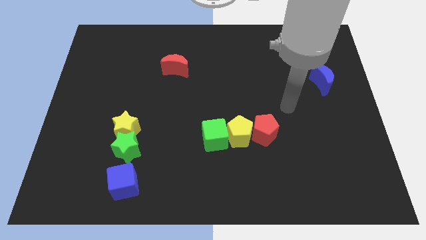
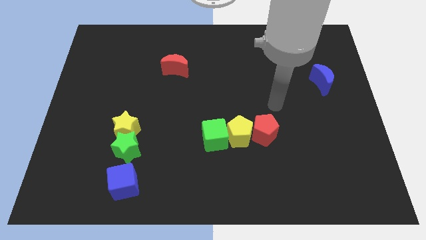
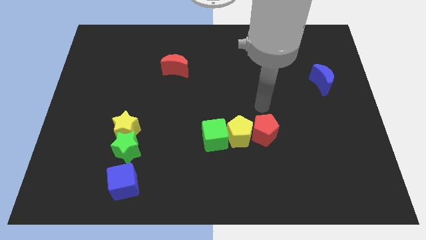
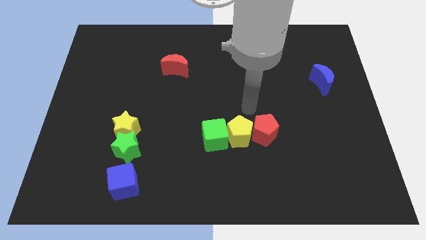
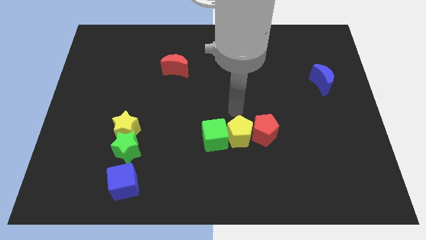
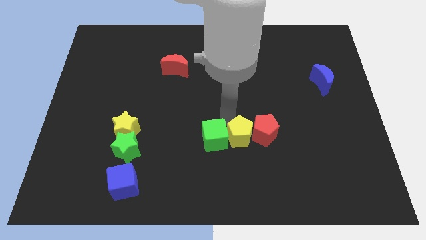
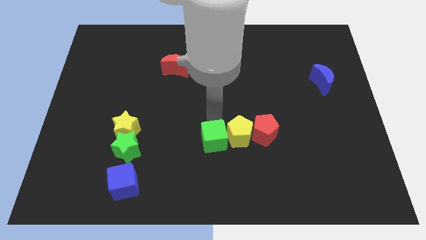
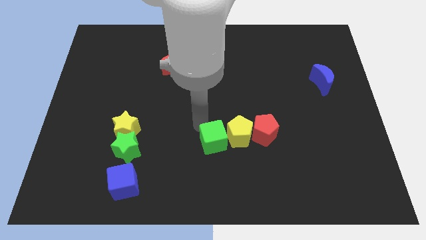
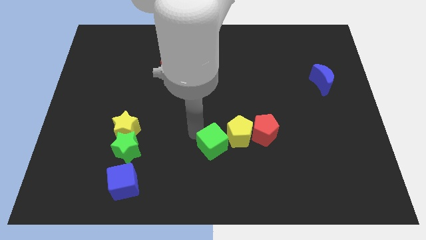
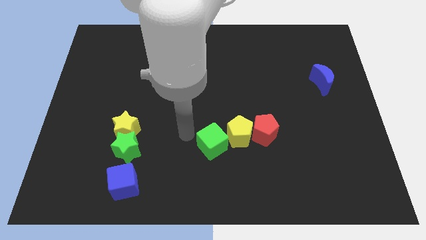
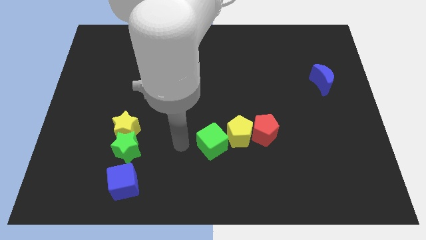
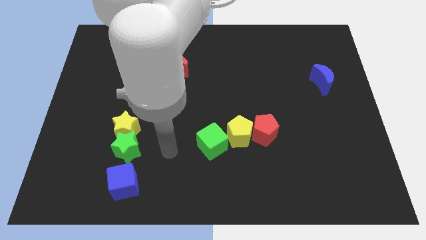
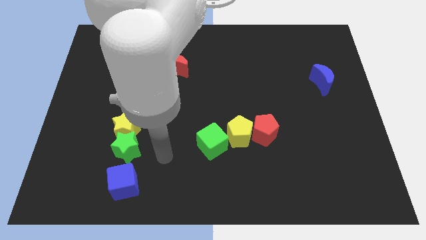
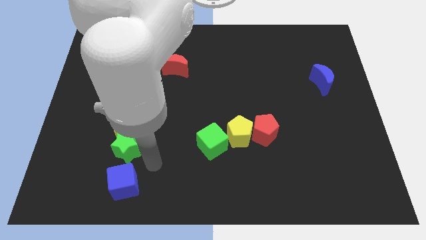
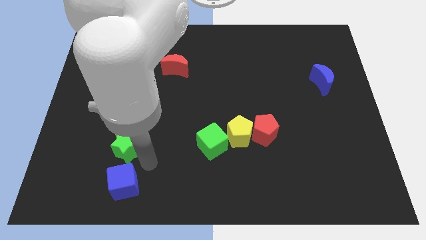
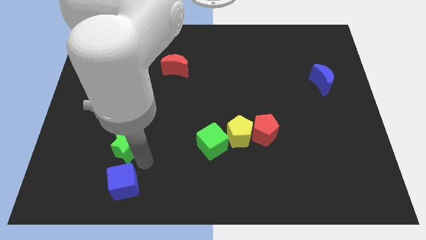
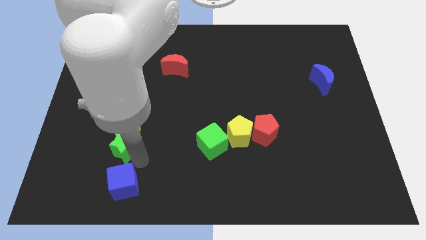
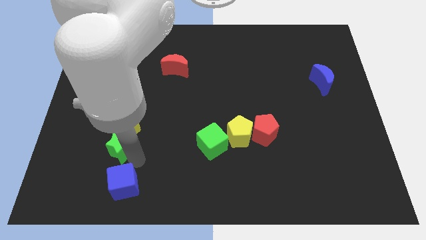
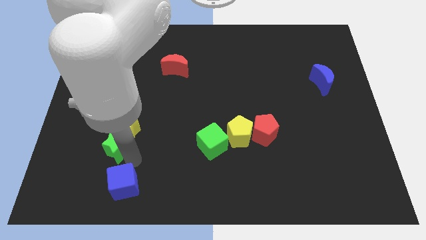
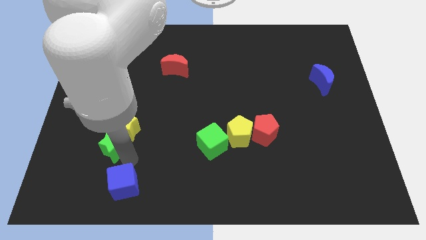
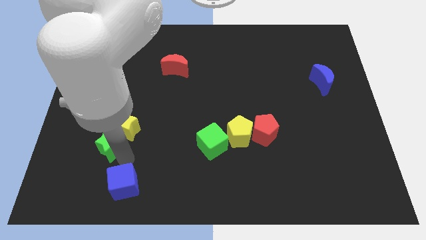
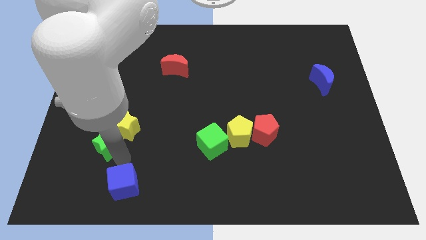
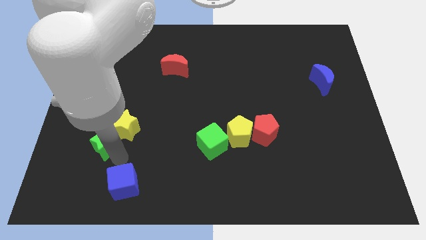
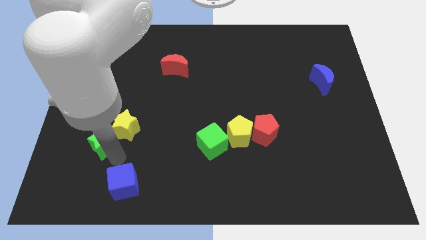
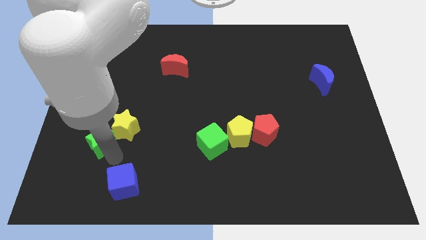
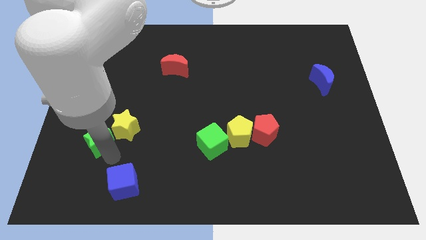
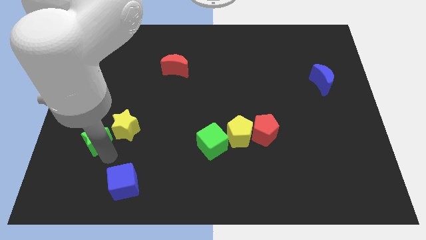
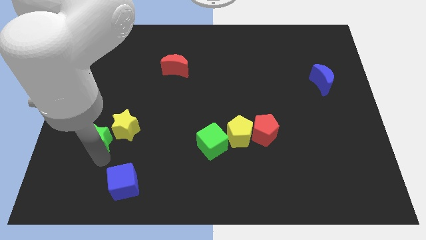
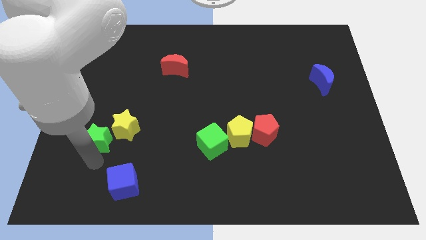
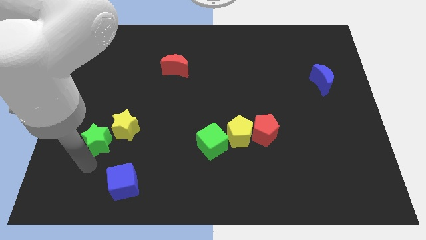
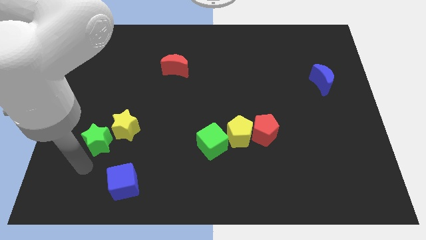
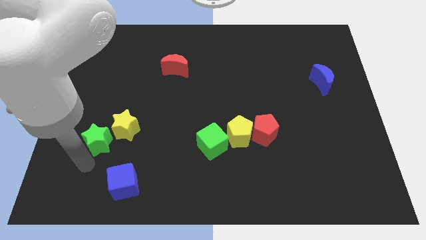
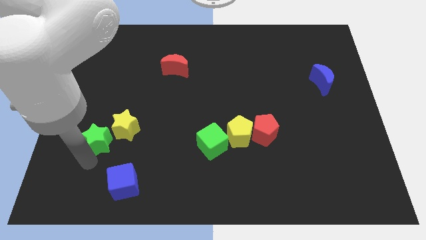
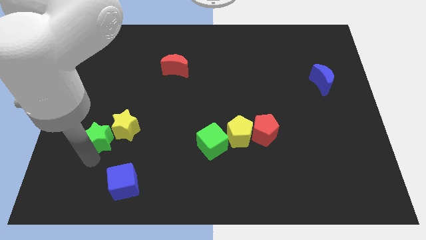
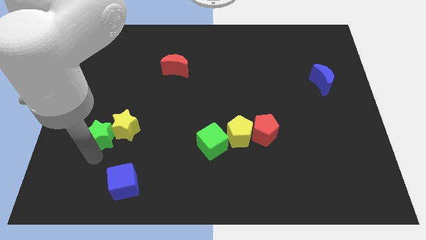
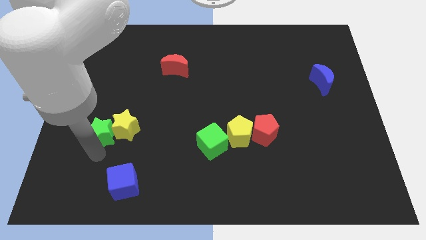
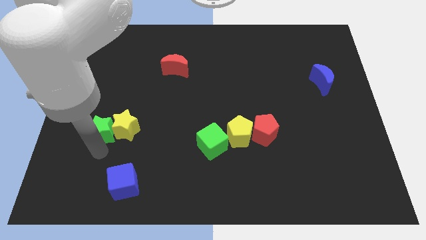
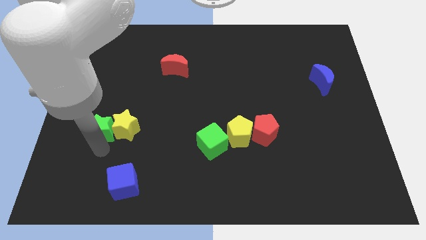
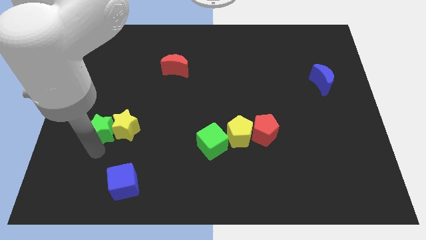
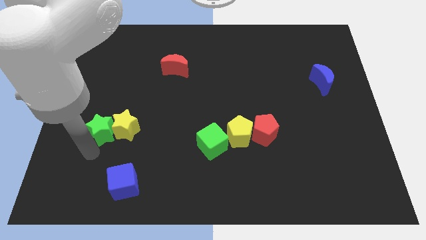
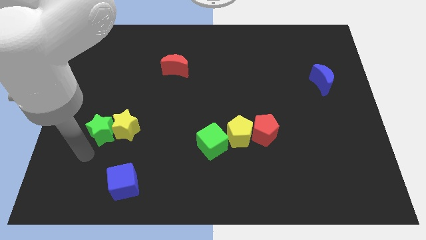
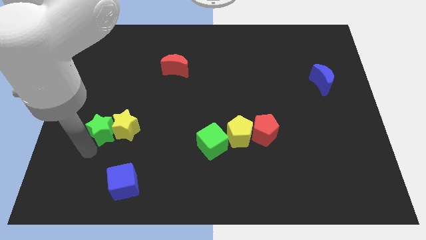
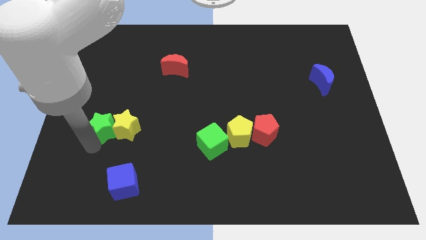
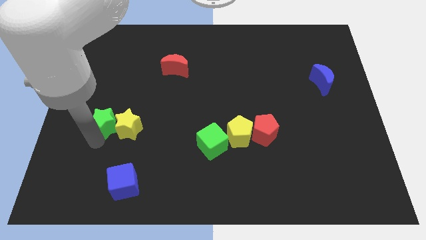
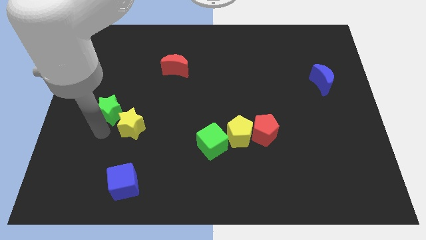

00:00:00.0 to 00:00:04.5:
slide the green star upwards slightly

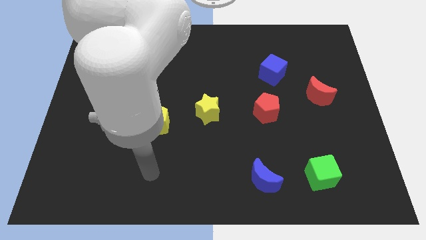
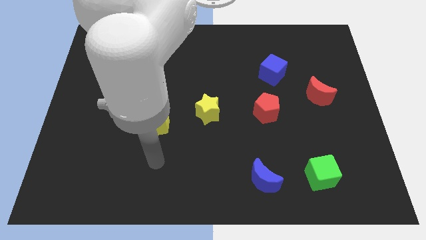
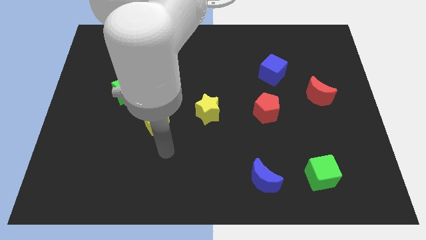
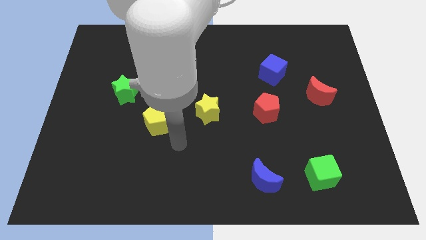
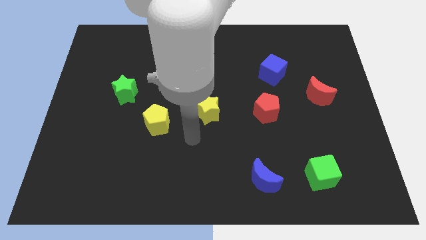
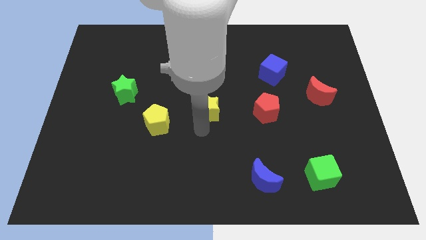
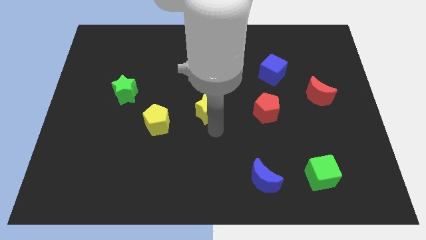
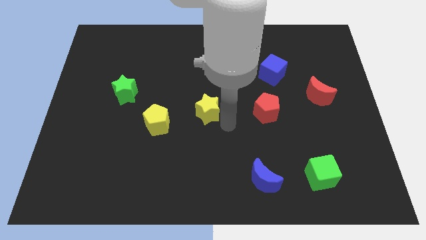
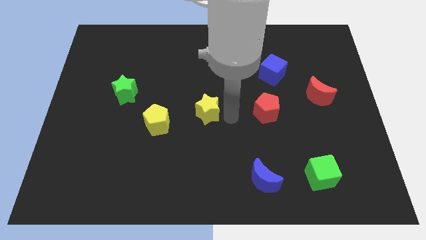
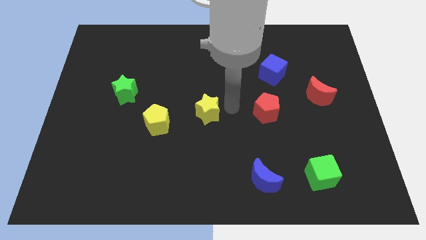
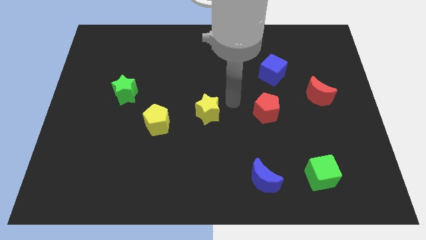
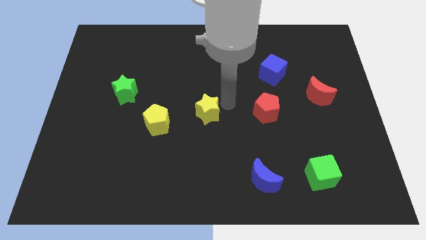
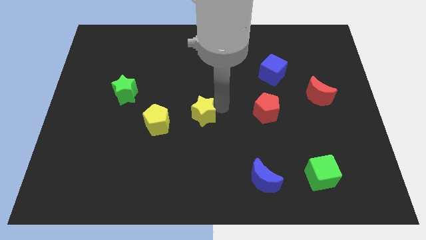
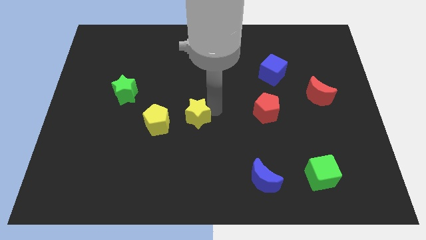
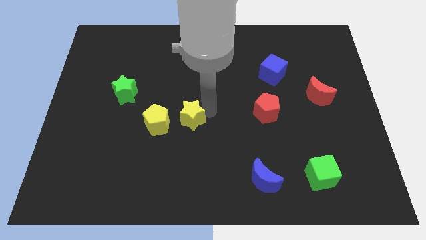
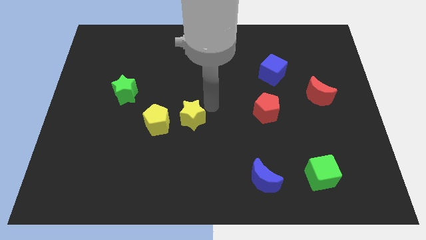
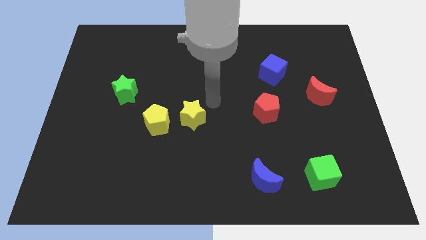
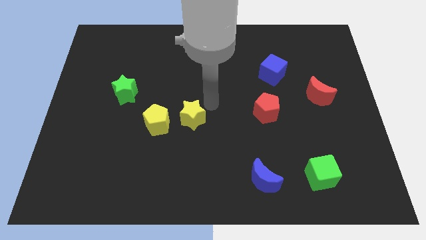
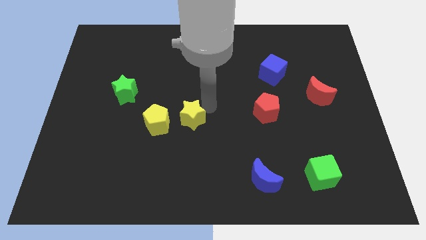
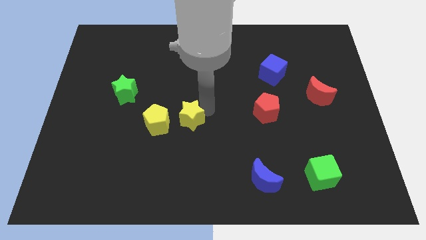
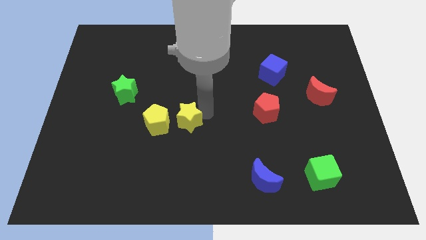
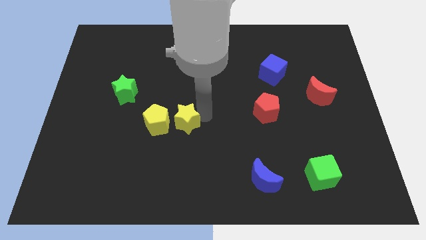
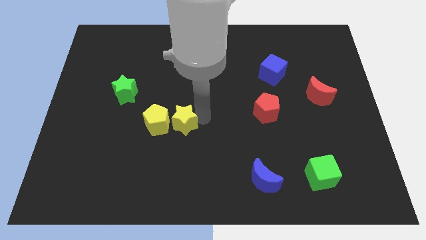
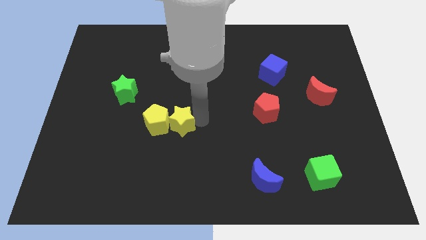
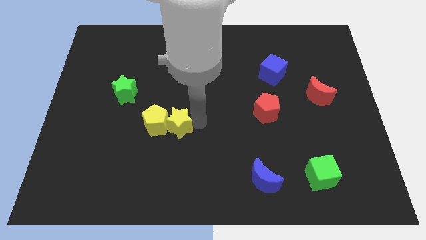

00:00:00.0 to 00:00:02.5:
slide the yellow star a bit down and then left

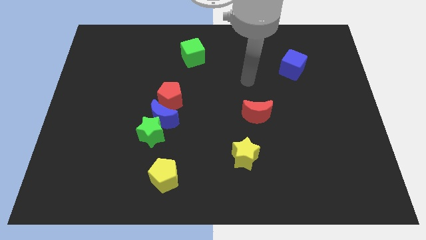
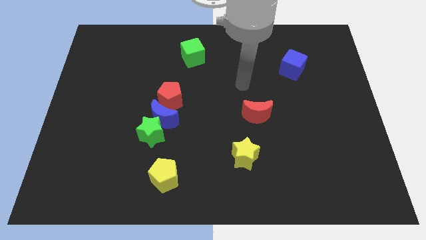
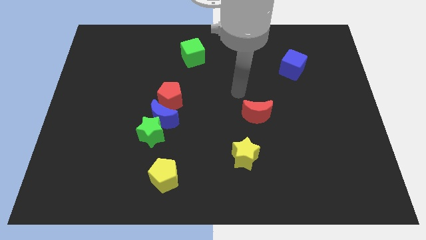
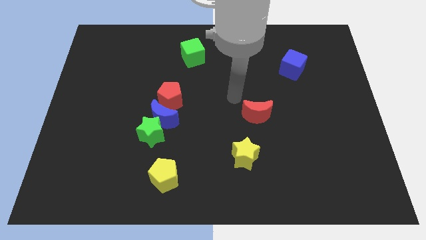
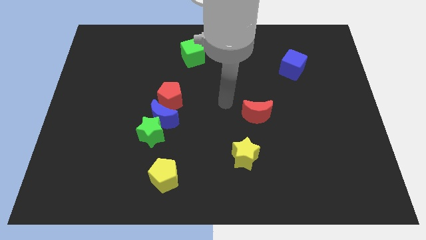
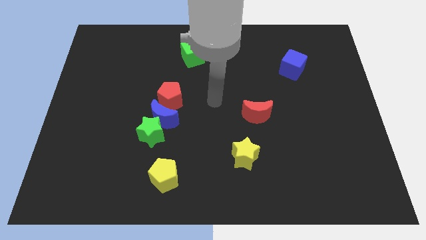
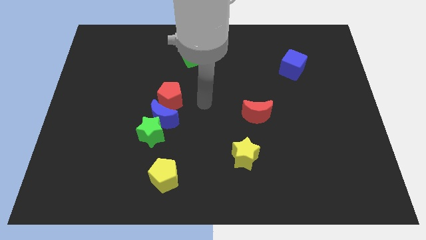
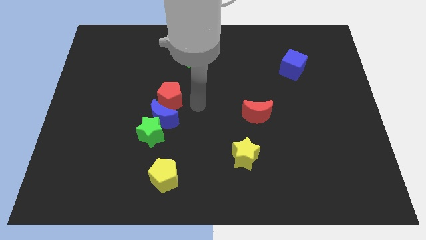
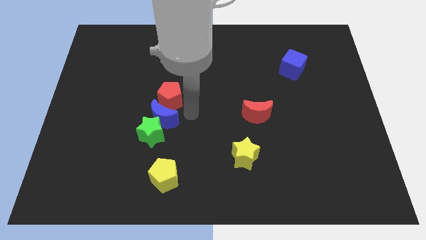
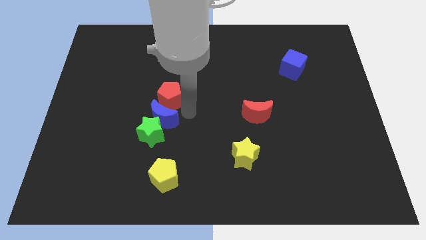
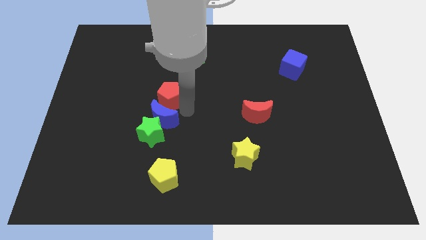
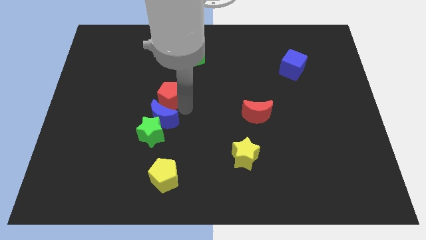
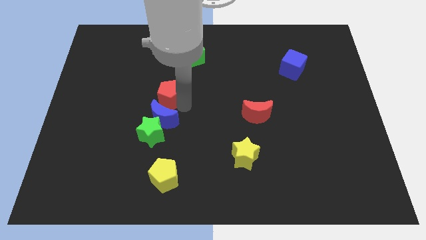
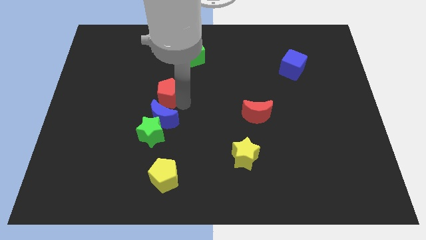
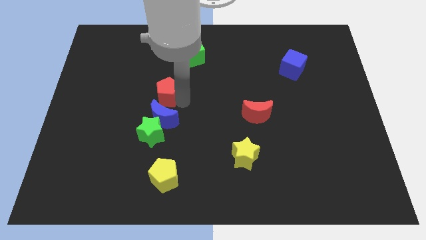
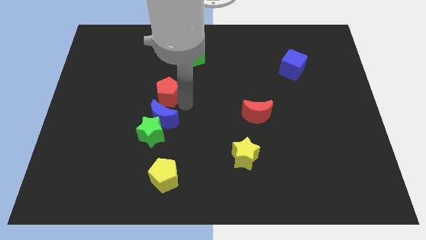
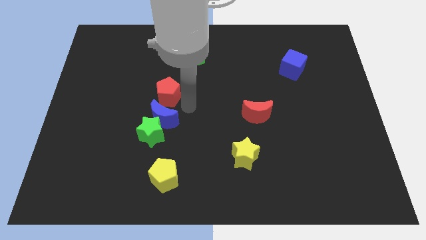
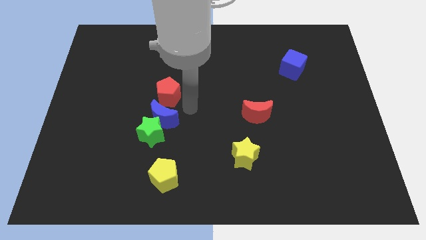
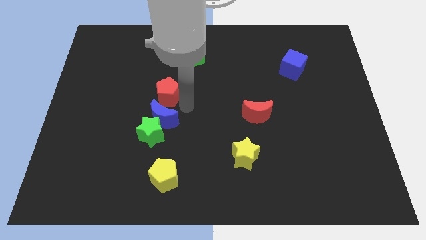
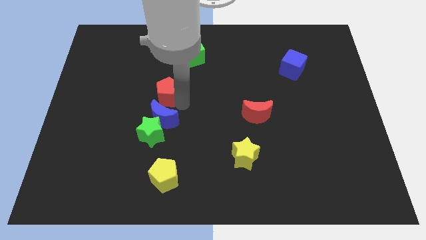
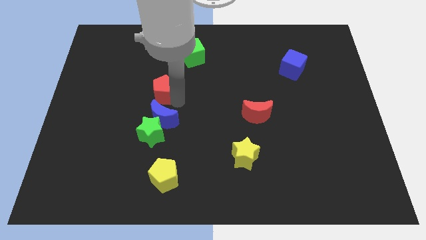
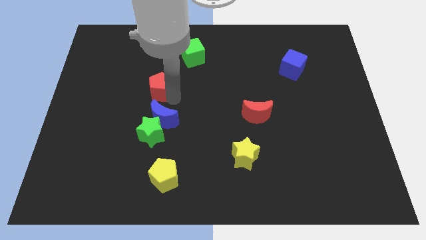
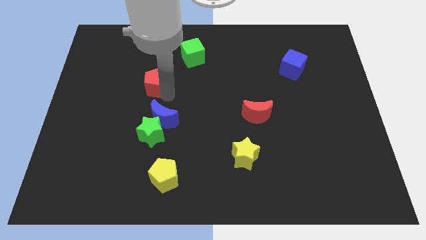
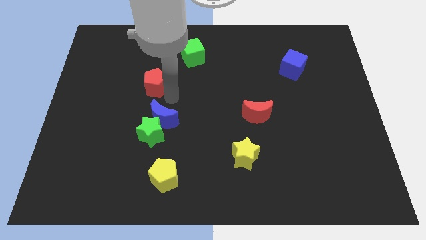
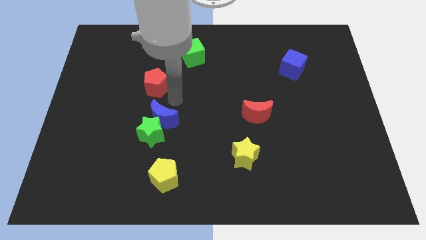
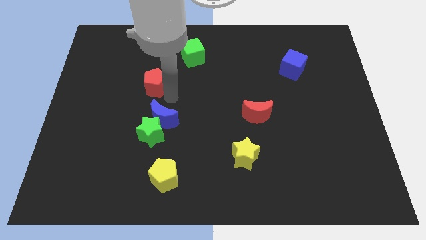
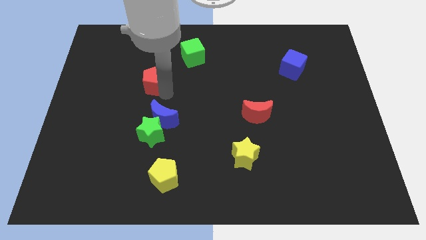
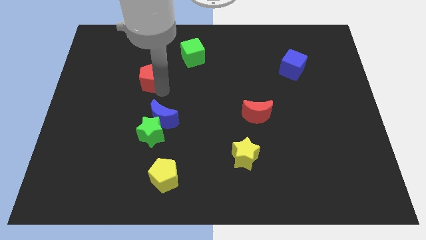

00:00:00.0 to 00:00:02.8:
slightly push the red pentagon upwards and left diagonally
